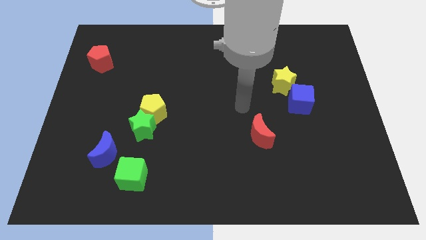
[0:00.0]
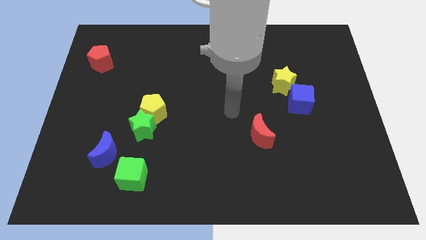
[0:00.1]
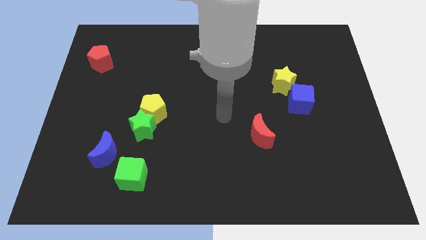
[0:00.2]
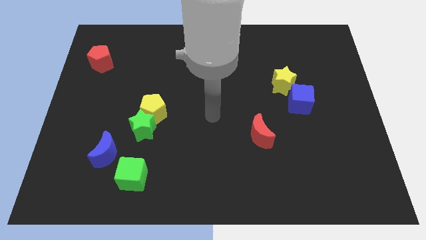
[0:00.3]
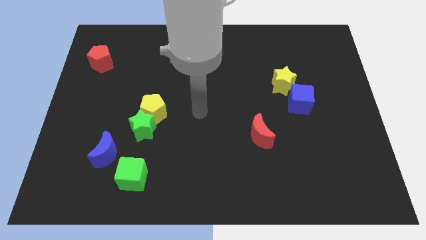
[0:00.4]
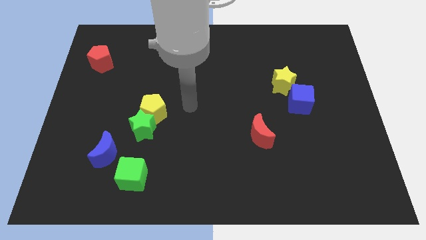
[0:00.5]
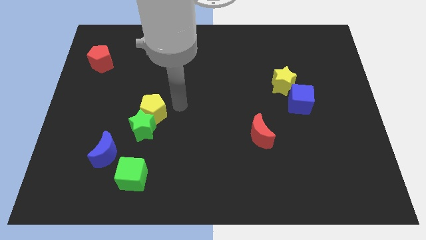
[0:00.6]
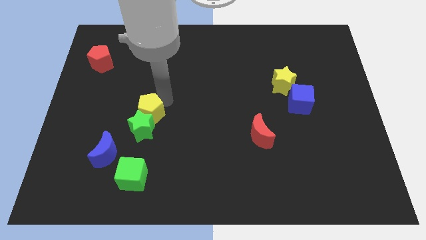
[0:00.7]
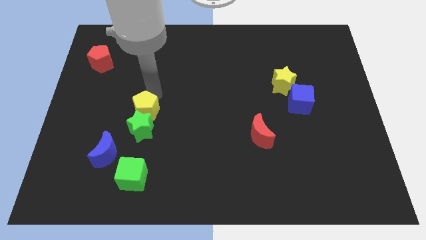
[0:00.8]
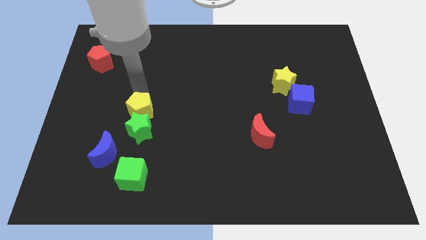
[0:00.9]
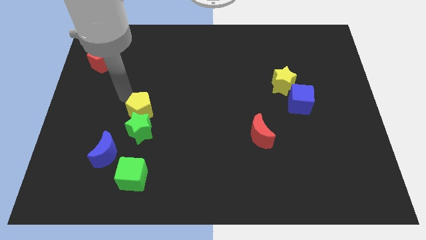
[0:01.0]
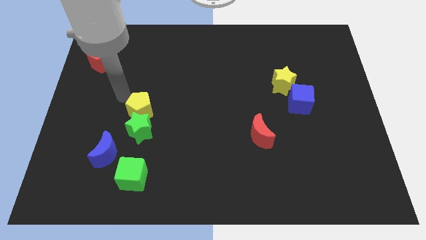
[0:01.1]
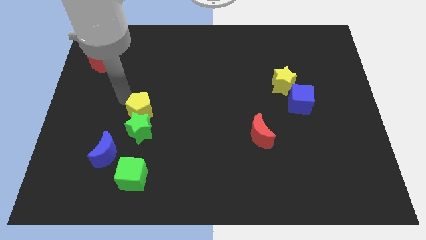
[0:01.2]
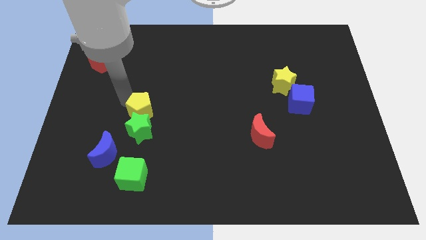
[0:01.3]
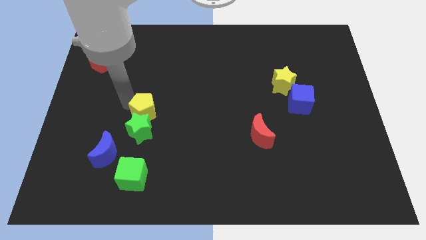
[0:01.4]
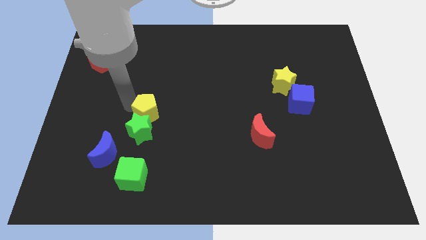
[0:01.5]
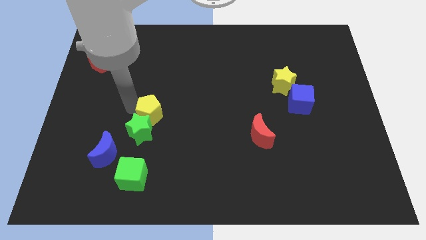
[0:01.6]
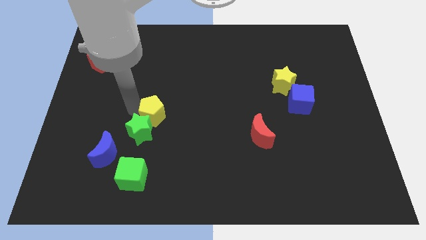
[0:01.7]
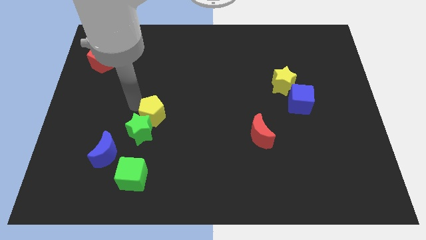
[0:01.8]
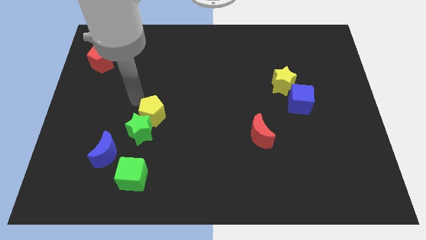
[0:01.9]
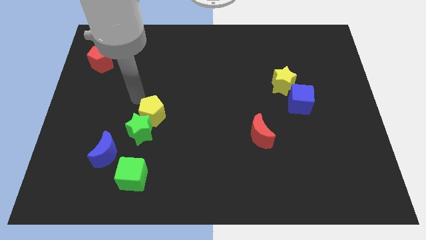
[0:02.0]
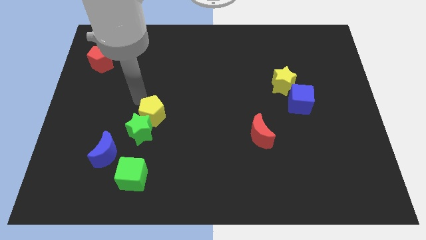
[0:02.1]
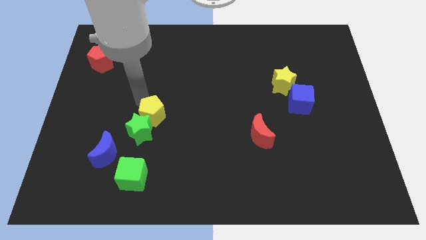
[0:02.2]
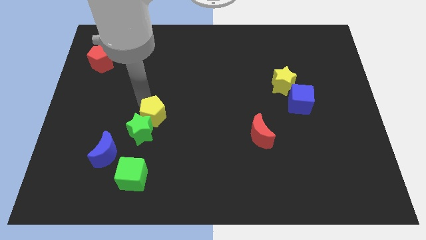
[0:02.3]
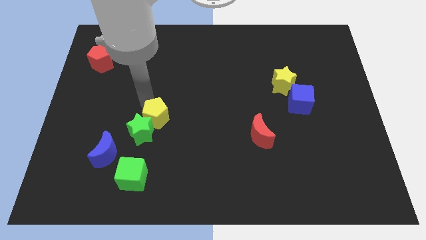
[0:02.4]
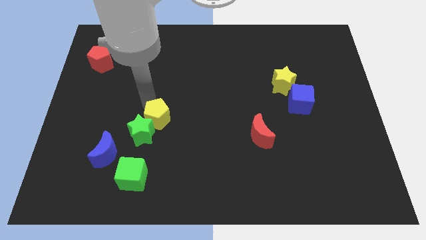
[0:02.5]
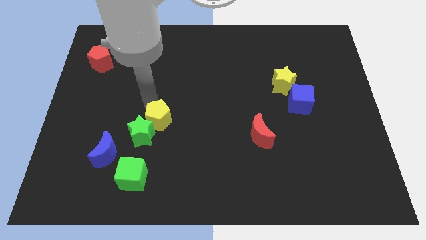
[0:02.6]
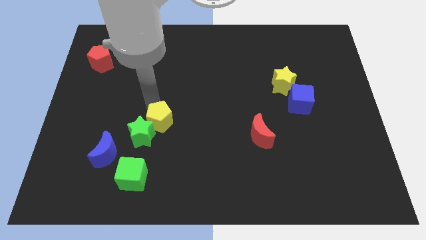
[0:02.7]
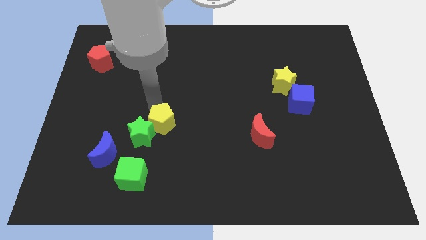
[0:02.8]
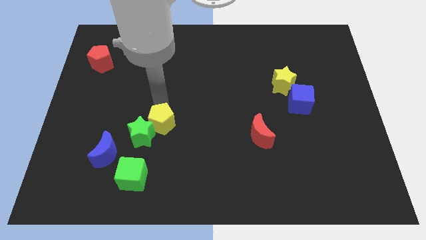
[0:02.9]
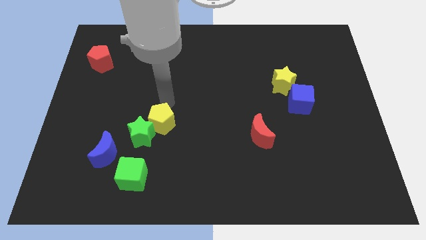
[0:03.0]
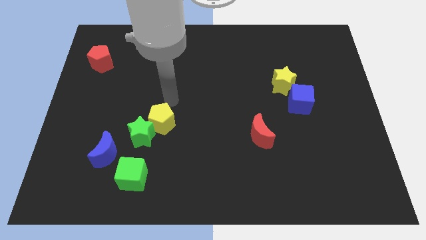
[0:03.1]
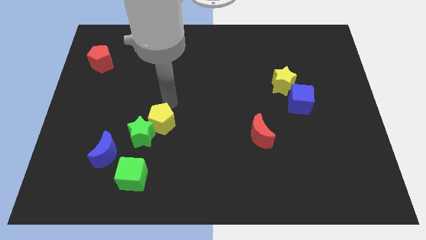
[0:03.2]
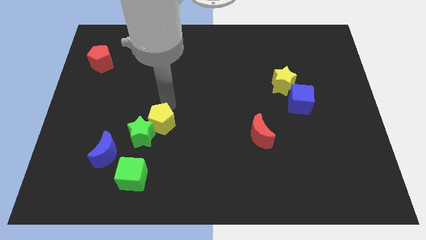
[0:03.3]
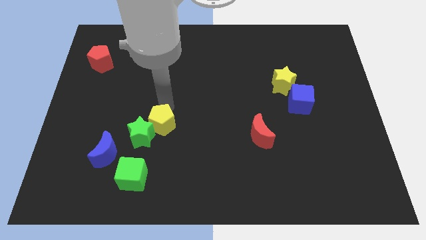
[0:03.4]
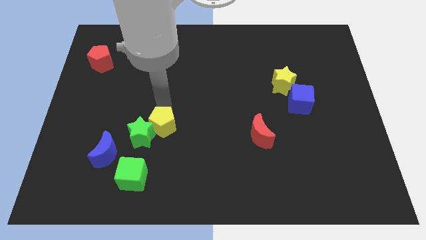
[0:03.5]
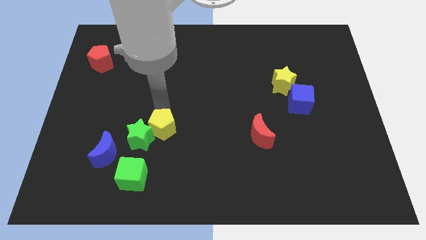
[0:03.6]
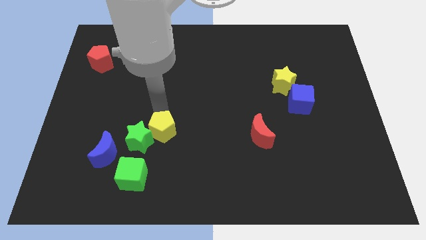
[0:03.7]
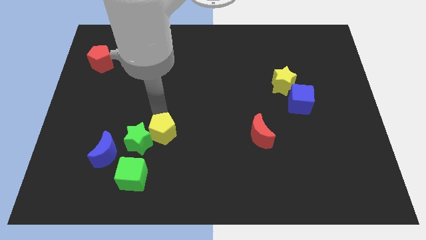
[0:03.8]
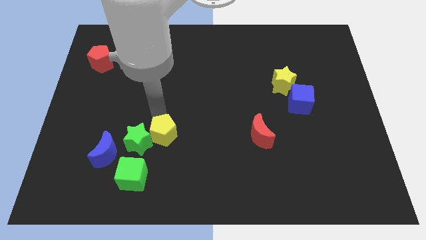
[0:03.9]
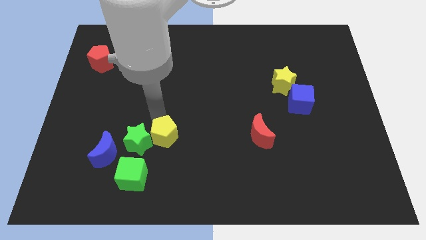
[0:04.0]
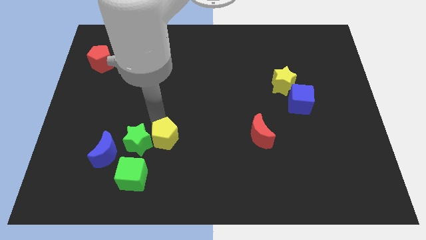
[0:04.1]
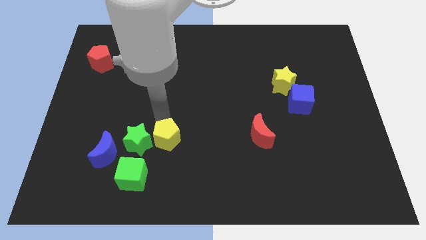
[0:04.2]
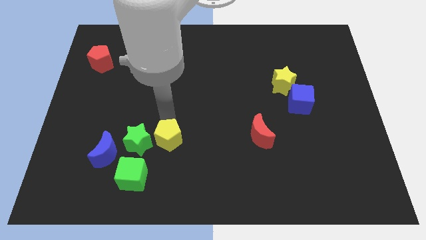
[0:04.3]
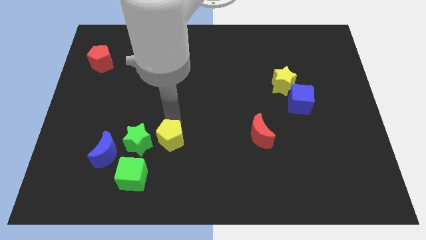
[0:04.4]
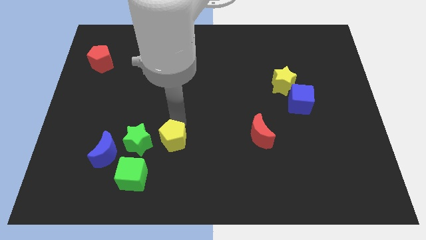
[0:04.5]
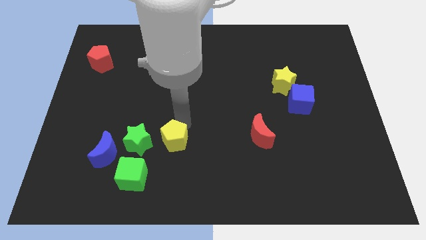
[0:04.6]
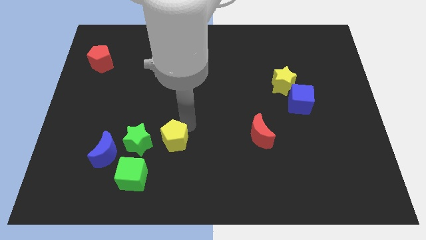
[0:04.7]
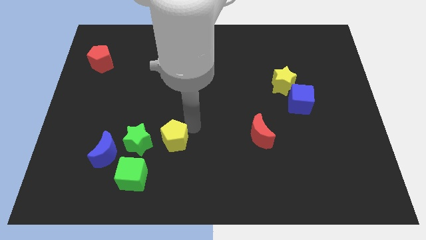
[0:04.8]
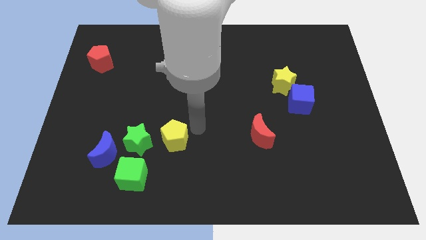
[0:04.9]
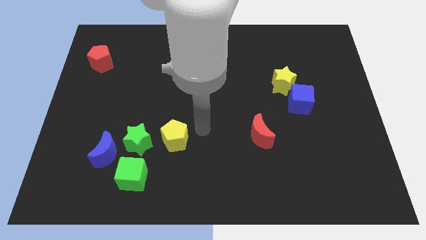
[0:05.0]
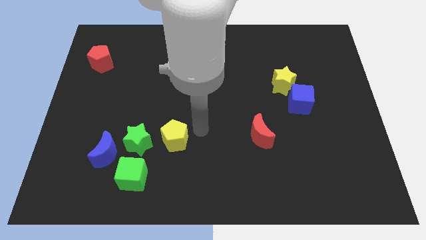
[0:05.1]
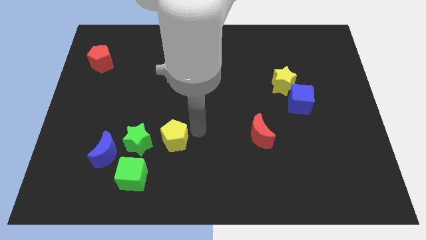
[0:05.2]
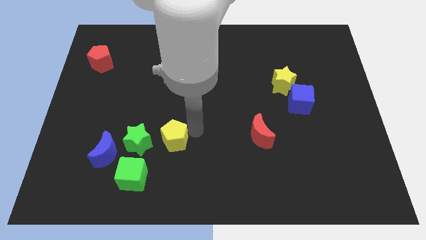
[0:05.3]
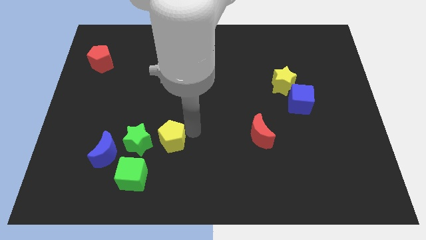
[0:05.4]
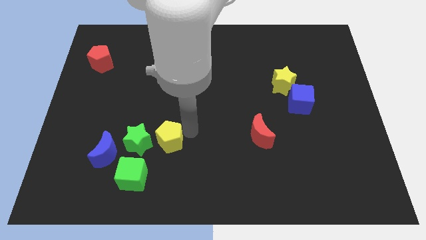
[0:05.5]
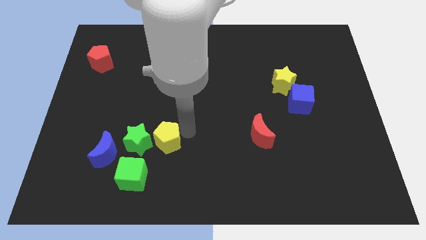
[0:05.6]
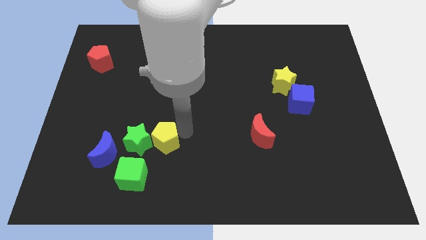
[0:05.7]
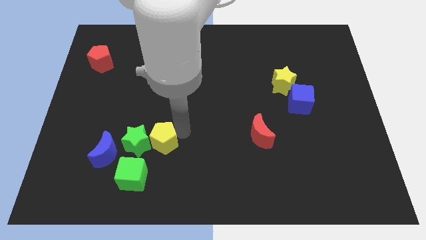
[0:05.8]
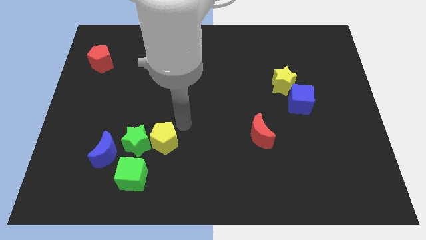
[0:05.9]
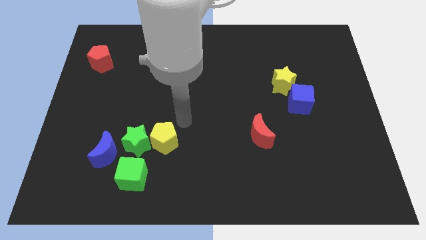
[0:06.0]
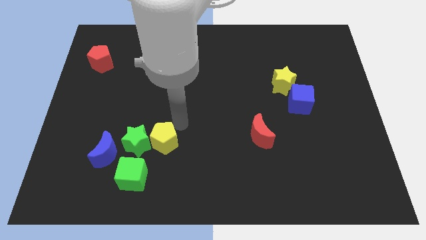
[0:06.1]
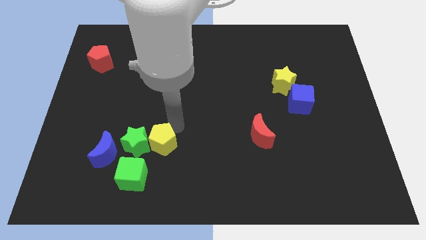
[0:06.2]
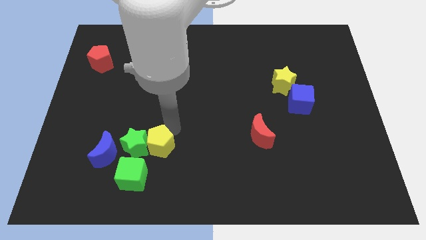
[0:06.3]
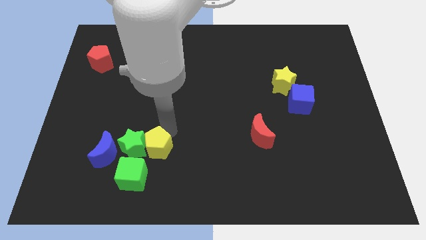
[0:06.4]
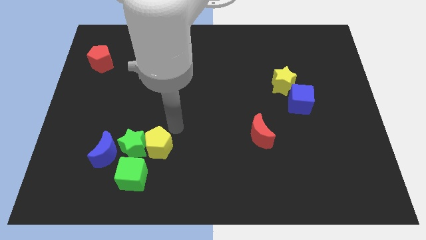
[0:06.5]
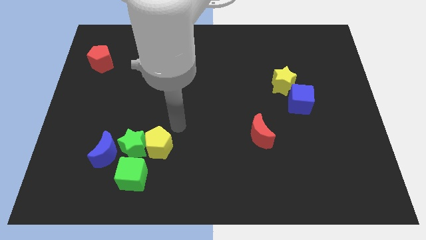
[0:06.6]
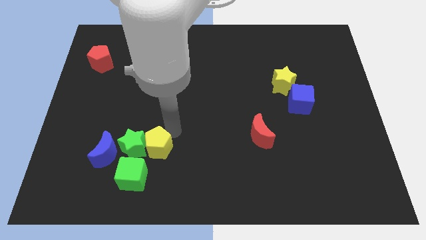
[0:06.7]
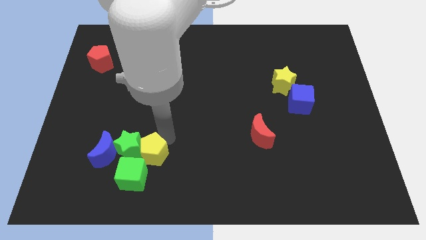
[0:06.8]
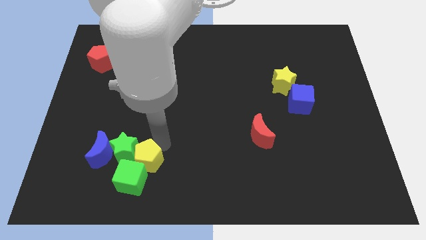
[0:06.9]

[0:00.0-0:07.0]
push the yellow pentagon towards the green cube
